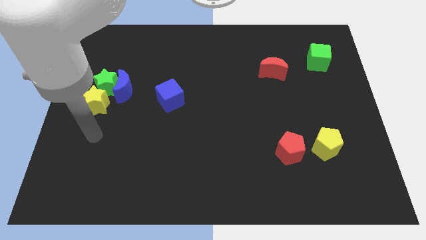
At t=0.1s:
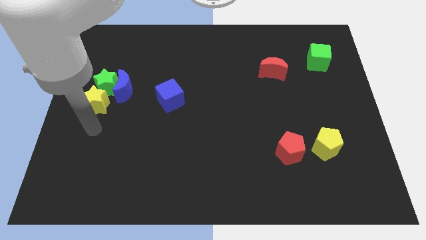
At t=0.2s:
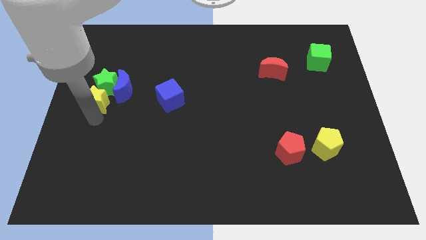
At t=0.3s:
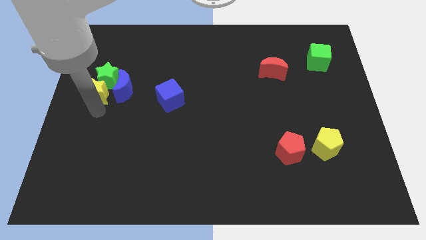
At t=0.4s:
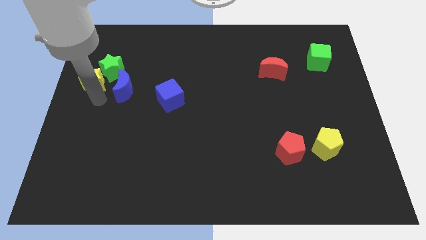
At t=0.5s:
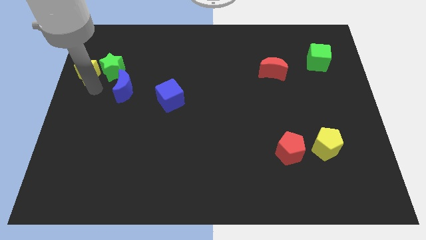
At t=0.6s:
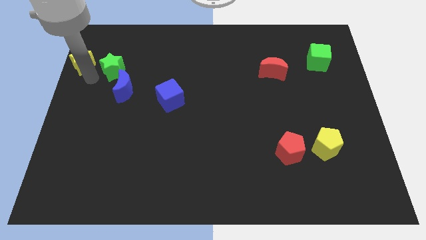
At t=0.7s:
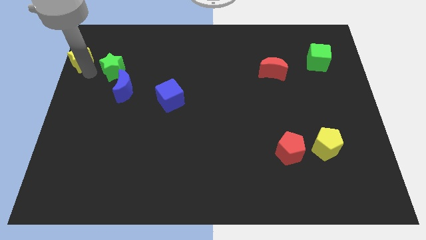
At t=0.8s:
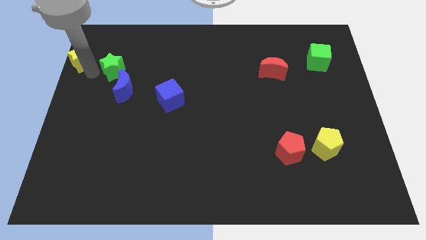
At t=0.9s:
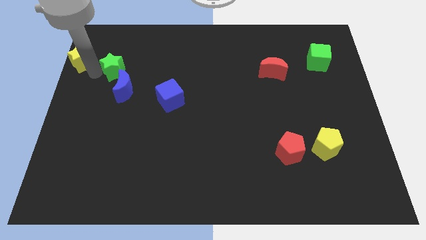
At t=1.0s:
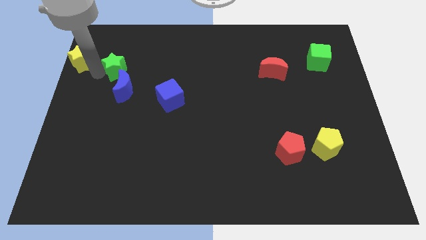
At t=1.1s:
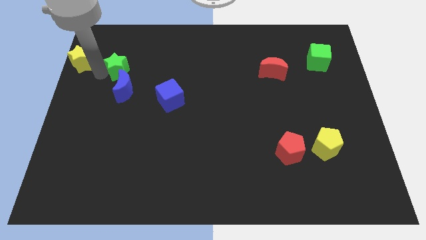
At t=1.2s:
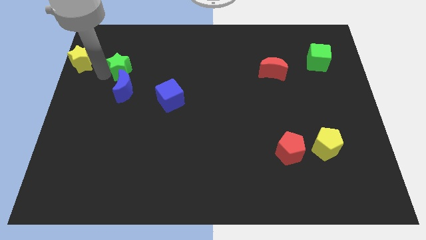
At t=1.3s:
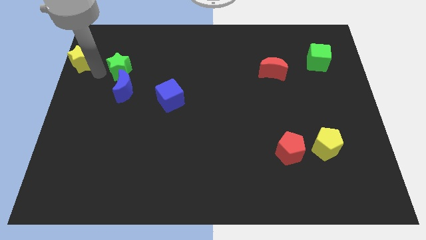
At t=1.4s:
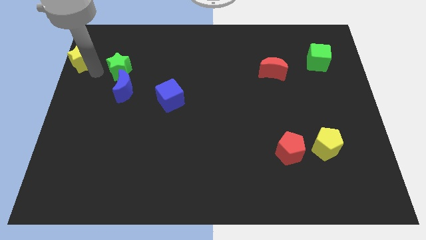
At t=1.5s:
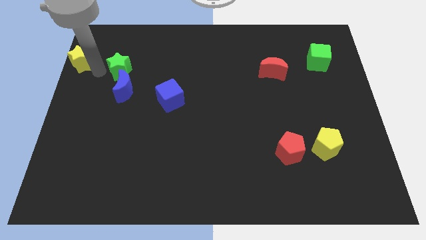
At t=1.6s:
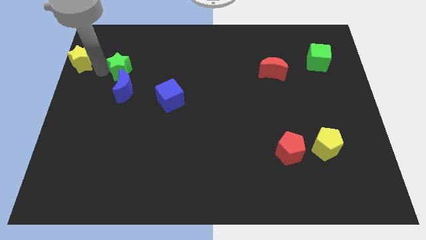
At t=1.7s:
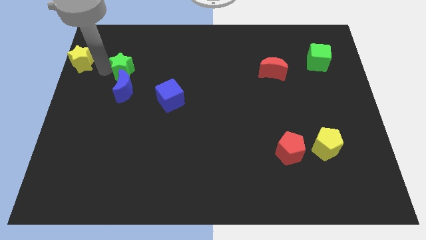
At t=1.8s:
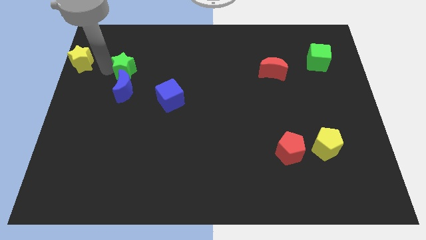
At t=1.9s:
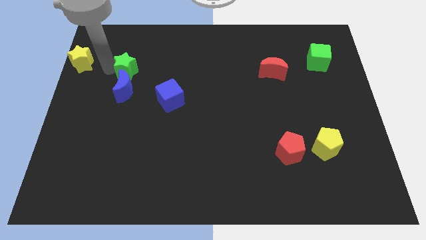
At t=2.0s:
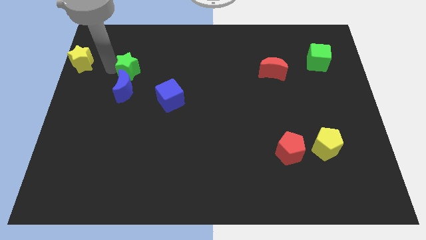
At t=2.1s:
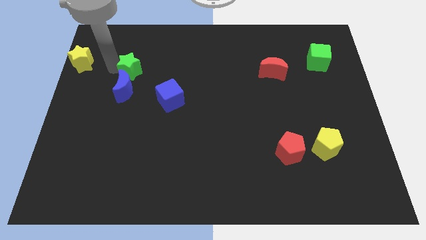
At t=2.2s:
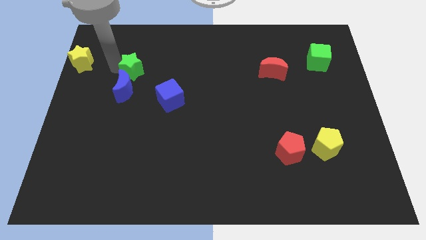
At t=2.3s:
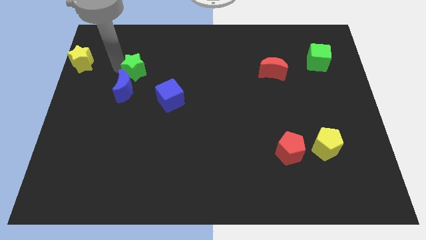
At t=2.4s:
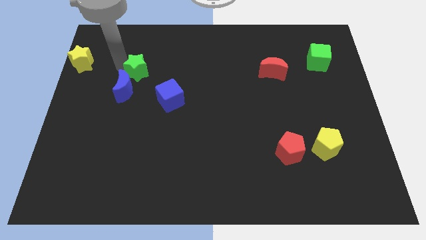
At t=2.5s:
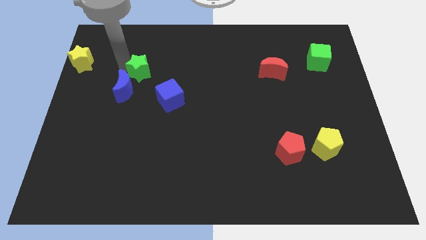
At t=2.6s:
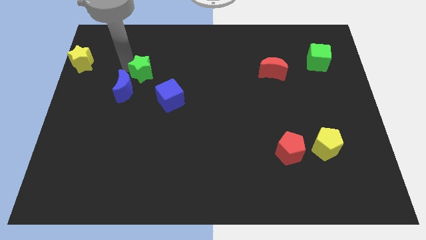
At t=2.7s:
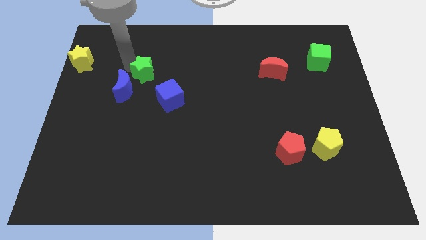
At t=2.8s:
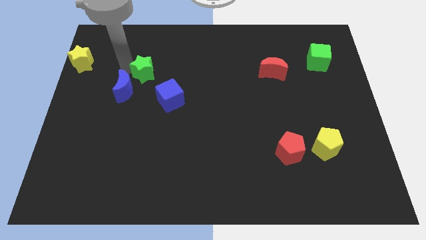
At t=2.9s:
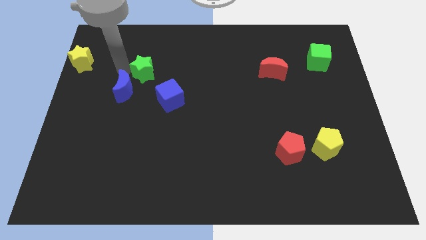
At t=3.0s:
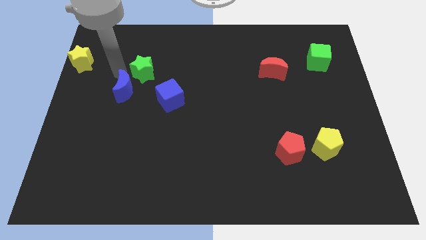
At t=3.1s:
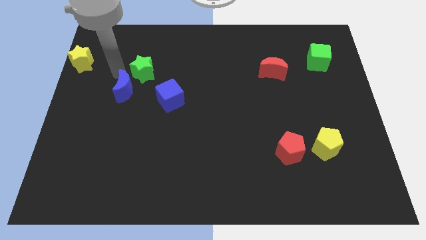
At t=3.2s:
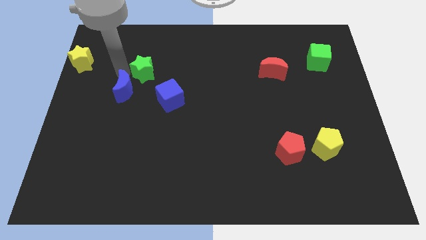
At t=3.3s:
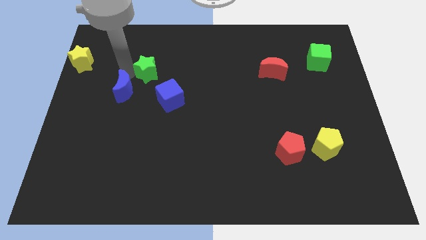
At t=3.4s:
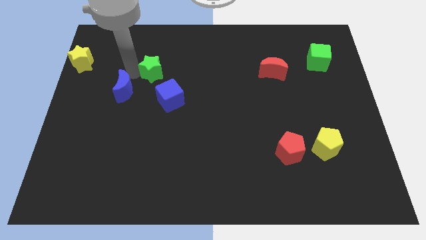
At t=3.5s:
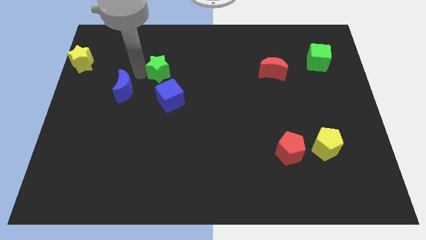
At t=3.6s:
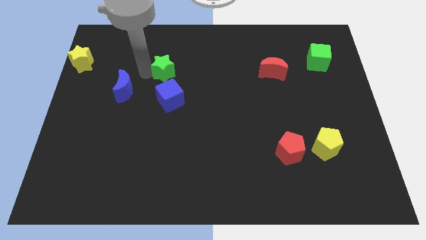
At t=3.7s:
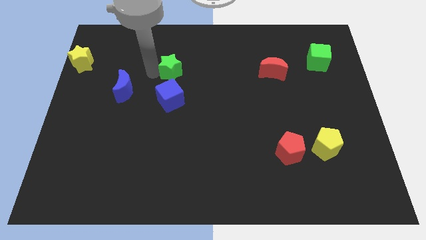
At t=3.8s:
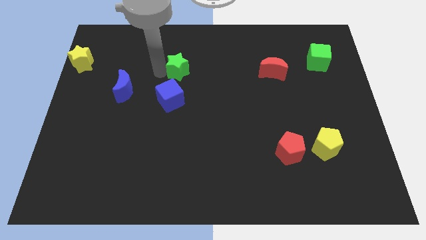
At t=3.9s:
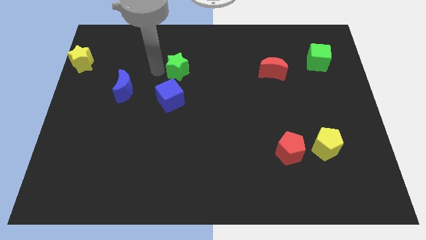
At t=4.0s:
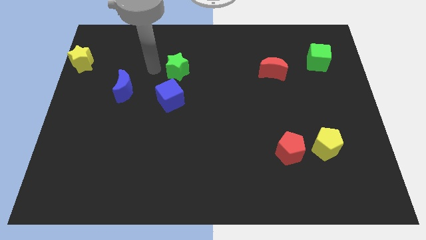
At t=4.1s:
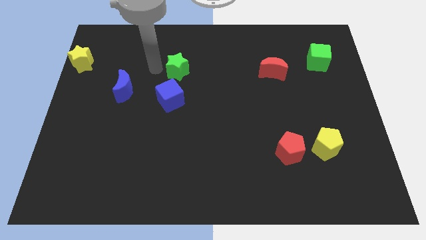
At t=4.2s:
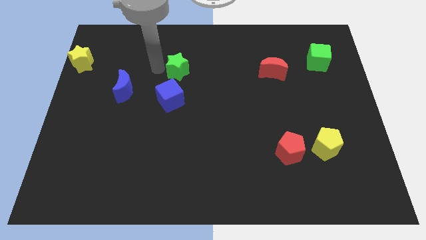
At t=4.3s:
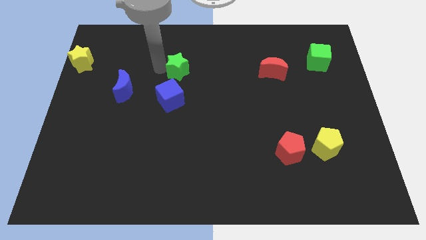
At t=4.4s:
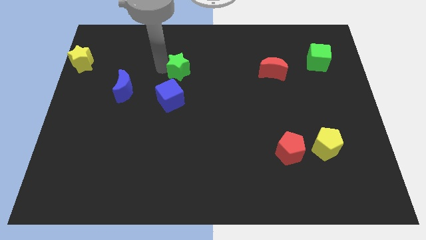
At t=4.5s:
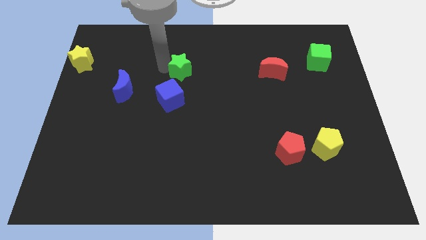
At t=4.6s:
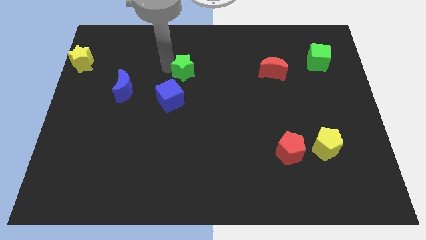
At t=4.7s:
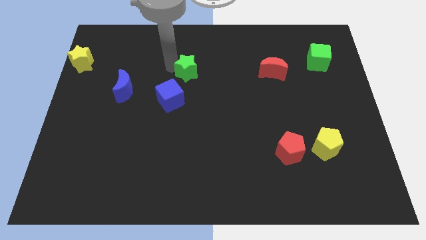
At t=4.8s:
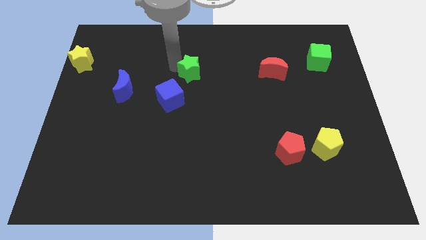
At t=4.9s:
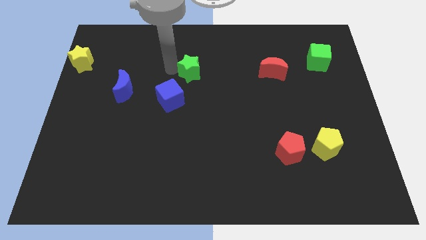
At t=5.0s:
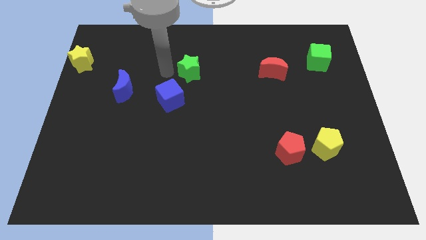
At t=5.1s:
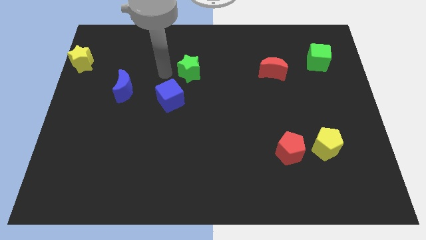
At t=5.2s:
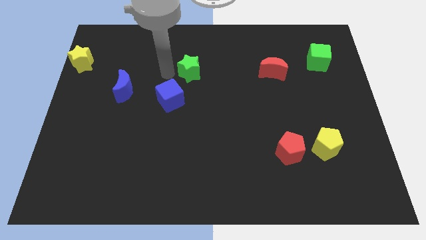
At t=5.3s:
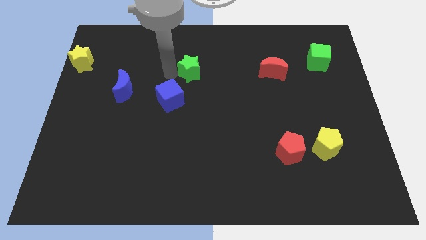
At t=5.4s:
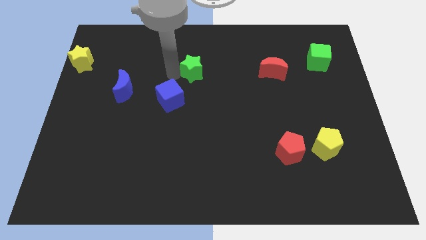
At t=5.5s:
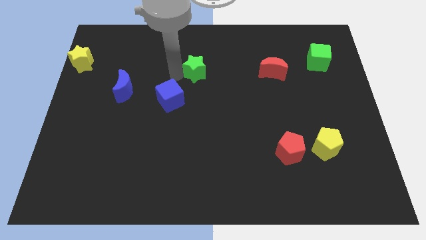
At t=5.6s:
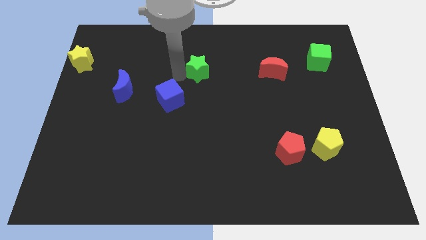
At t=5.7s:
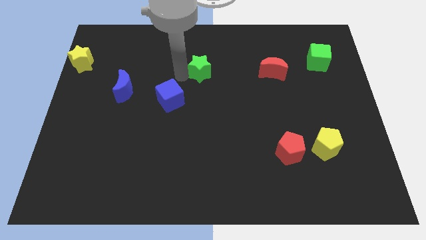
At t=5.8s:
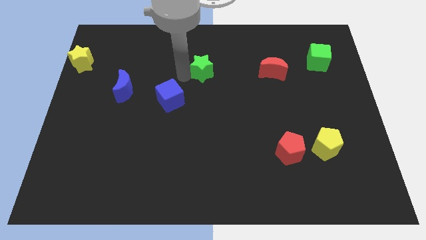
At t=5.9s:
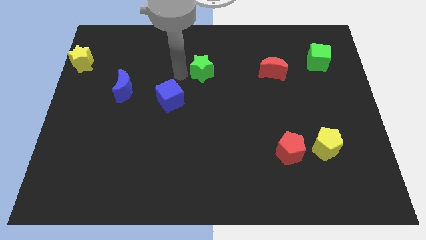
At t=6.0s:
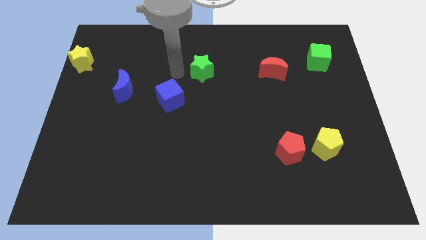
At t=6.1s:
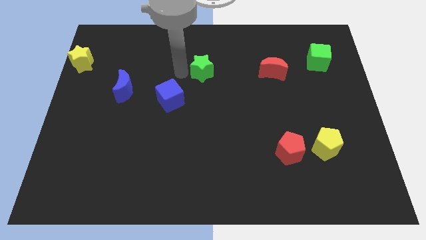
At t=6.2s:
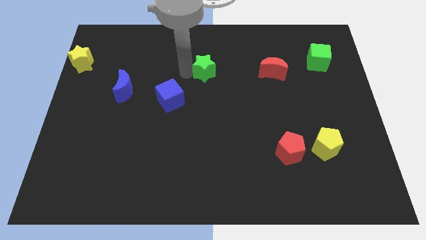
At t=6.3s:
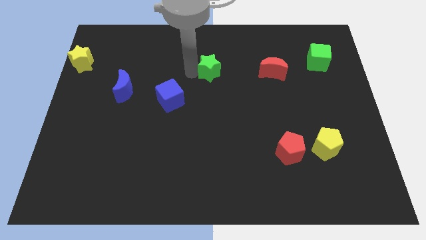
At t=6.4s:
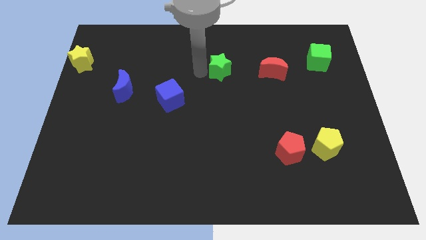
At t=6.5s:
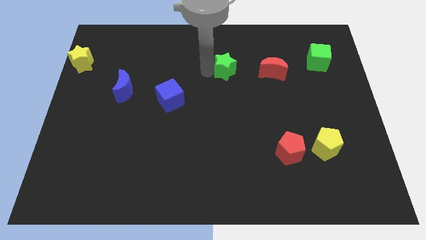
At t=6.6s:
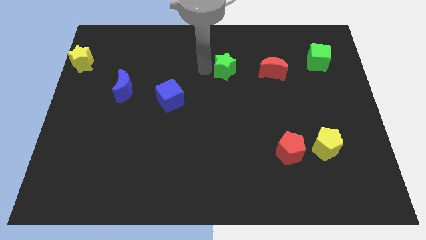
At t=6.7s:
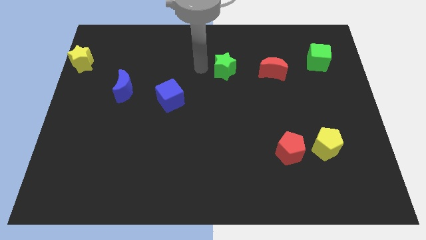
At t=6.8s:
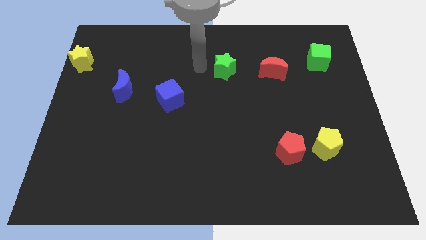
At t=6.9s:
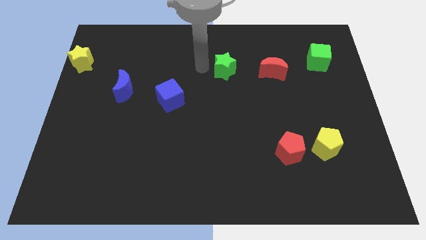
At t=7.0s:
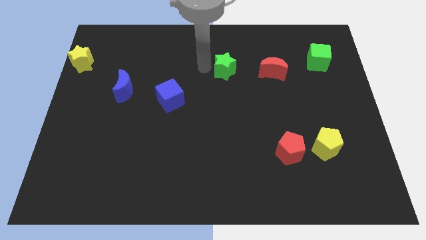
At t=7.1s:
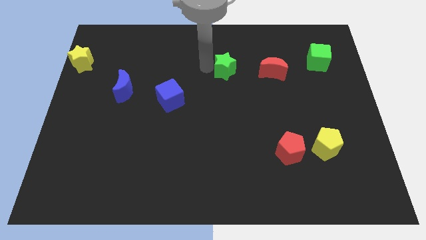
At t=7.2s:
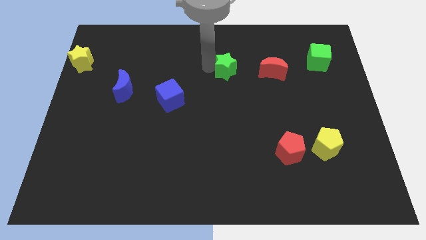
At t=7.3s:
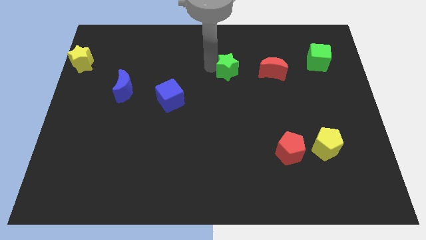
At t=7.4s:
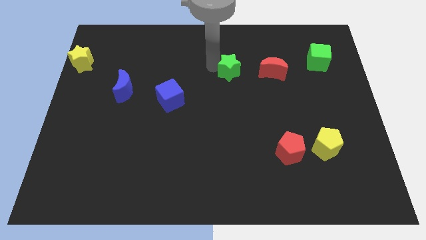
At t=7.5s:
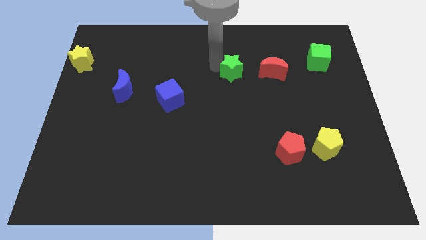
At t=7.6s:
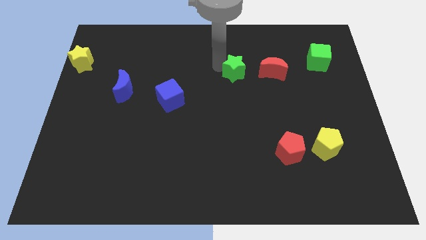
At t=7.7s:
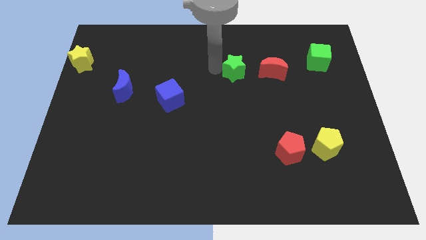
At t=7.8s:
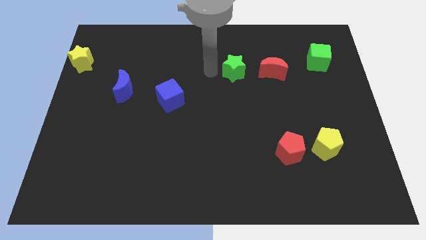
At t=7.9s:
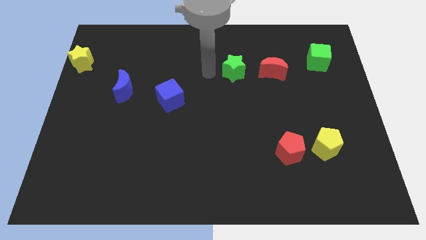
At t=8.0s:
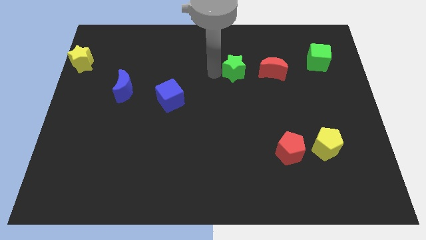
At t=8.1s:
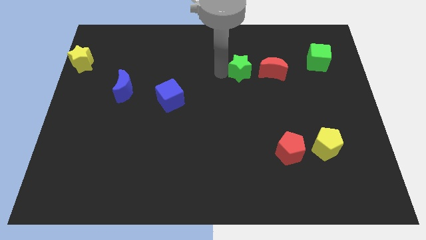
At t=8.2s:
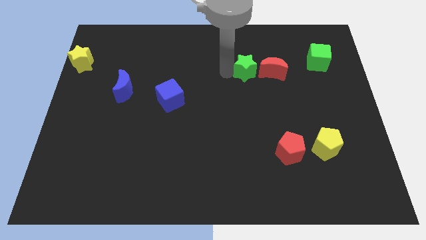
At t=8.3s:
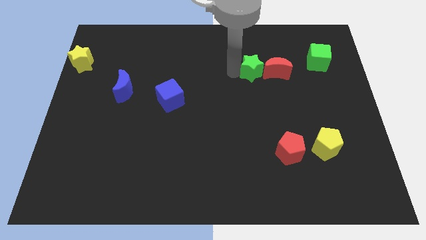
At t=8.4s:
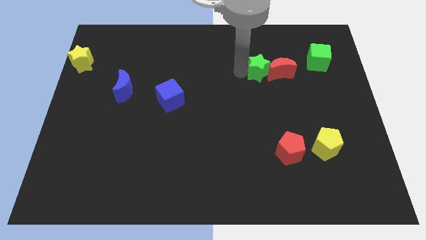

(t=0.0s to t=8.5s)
put the green star next to the red moon
